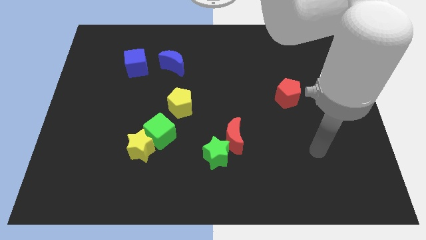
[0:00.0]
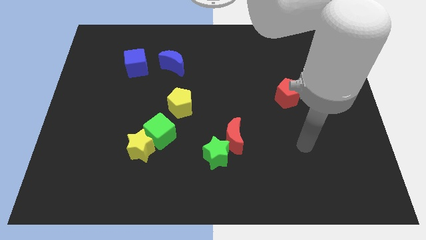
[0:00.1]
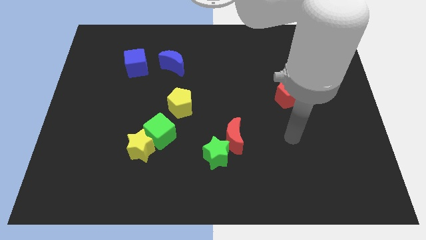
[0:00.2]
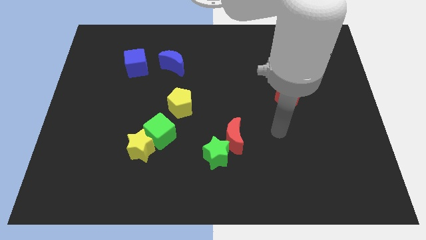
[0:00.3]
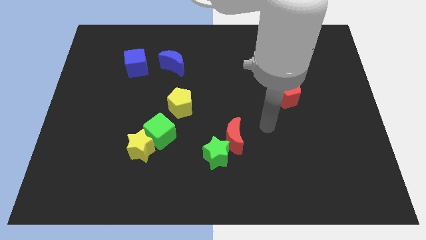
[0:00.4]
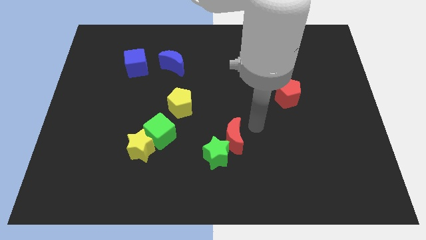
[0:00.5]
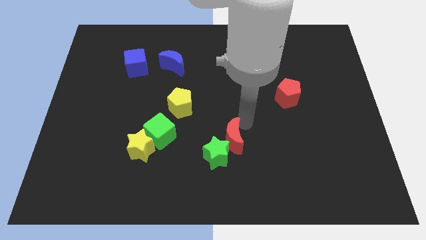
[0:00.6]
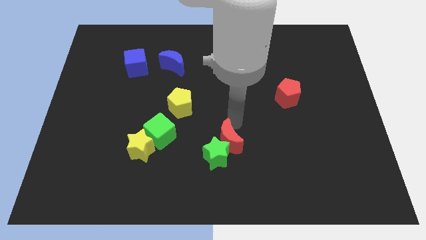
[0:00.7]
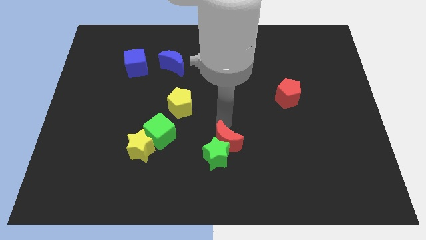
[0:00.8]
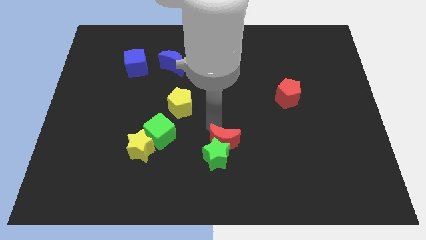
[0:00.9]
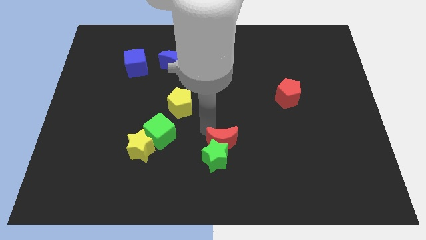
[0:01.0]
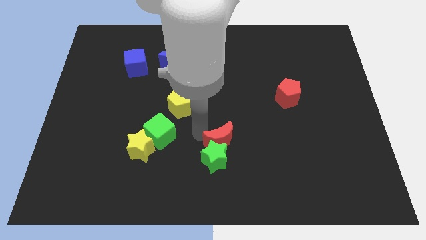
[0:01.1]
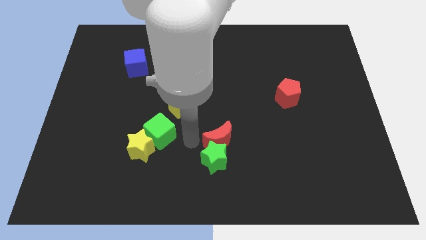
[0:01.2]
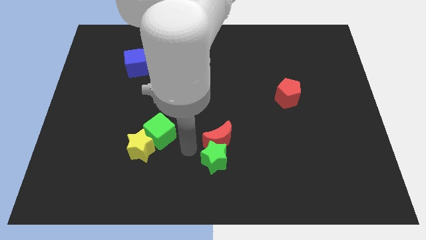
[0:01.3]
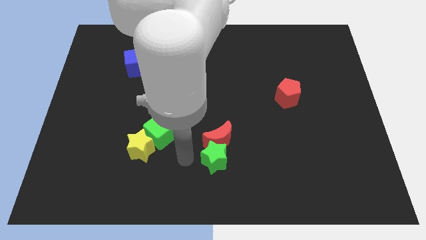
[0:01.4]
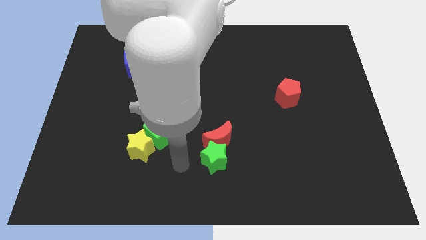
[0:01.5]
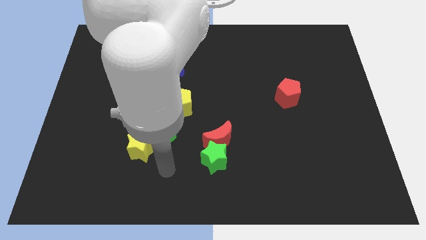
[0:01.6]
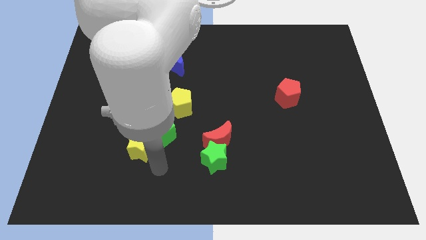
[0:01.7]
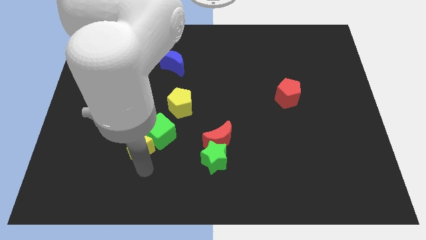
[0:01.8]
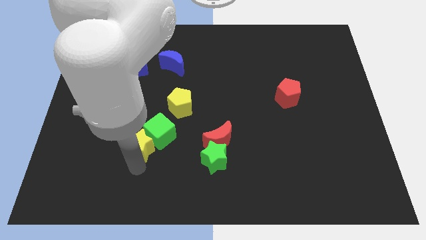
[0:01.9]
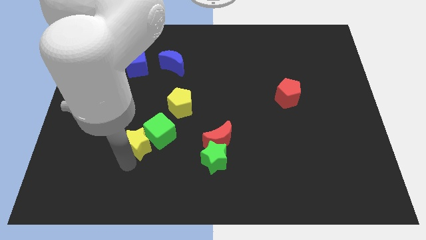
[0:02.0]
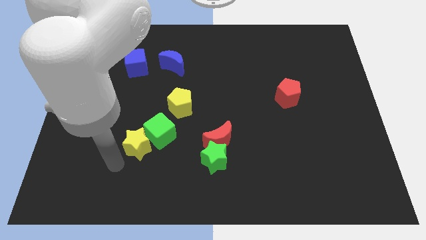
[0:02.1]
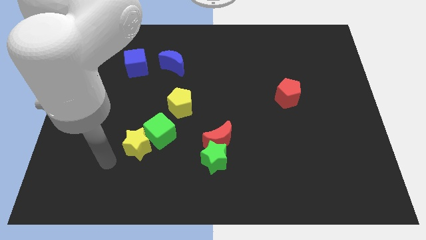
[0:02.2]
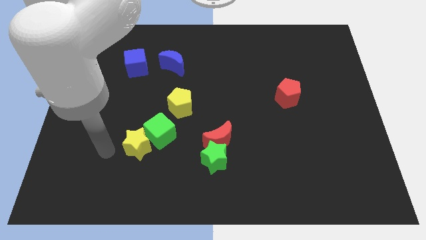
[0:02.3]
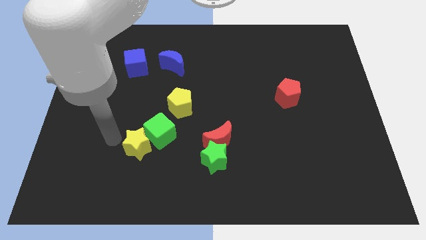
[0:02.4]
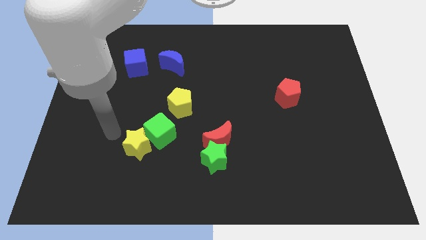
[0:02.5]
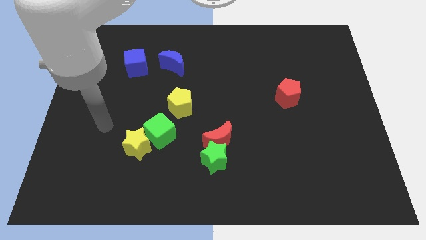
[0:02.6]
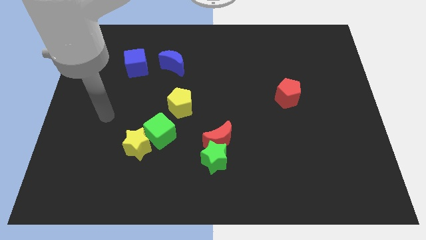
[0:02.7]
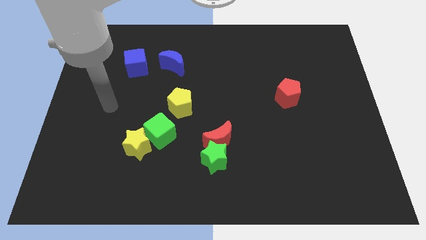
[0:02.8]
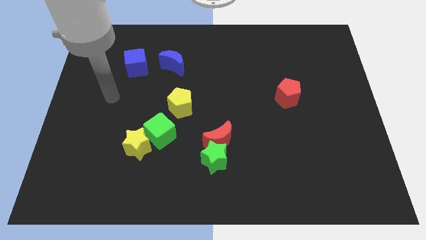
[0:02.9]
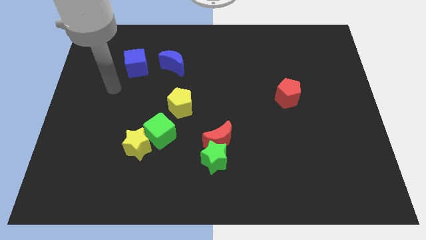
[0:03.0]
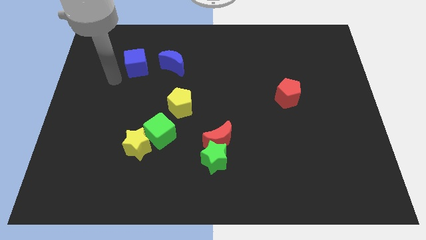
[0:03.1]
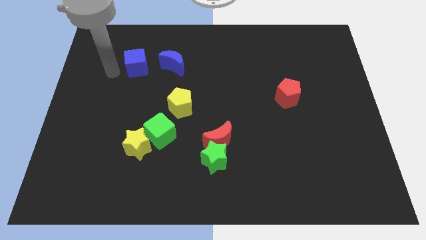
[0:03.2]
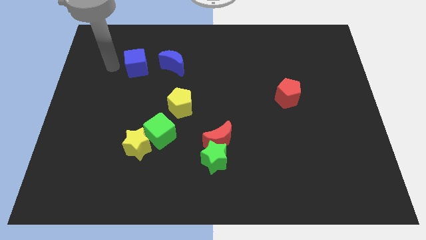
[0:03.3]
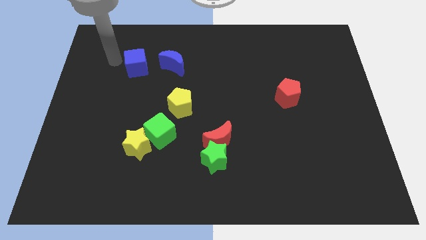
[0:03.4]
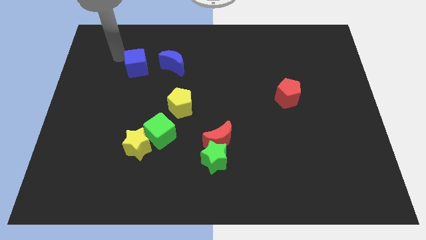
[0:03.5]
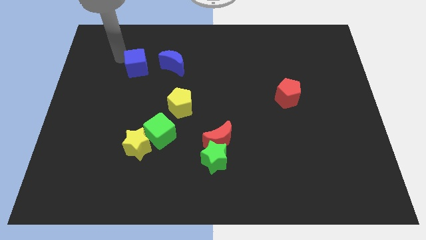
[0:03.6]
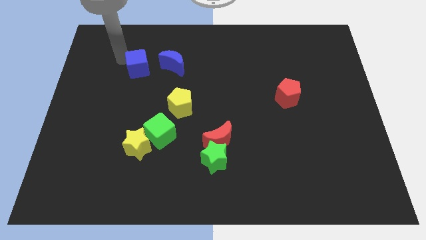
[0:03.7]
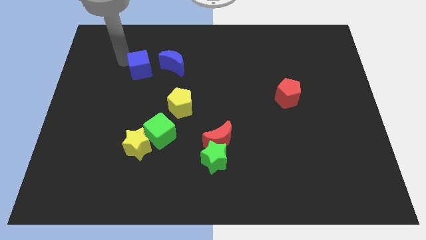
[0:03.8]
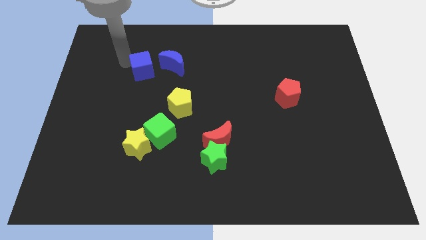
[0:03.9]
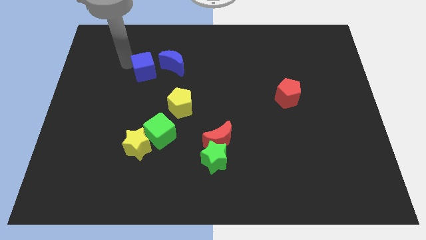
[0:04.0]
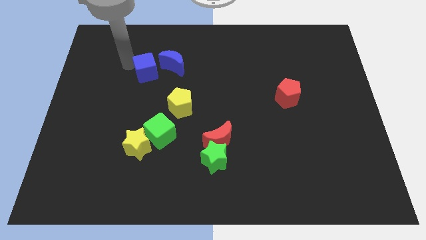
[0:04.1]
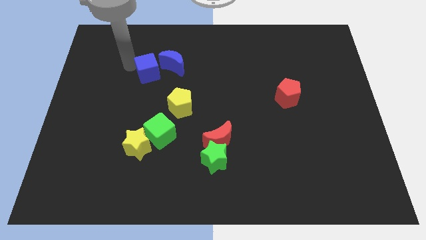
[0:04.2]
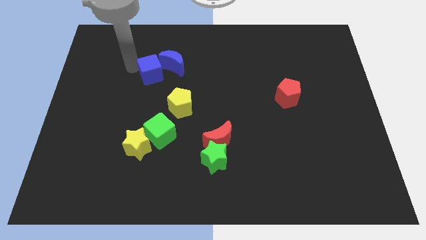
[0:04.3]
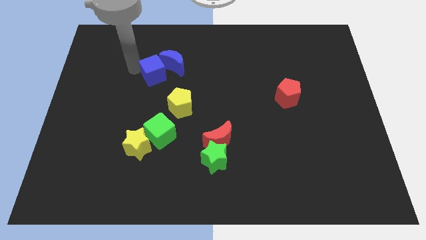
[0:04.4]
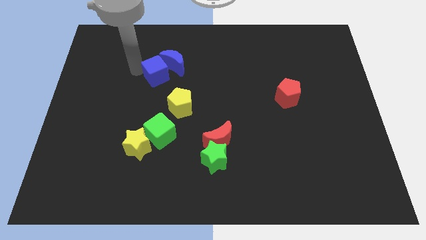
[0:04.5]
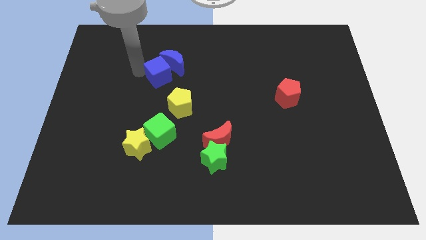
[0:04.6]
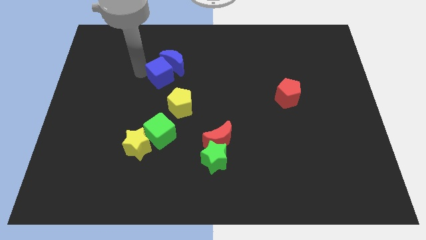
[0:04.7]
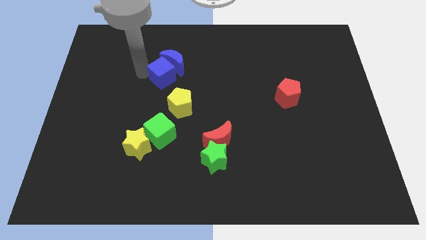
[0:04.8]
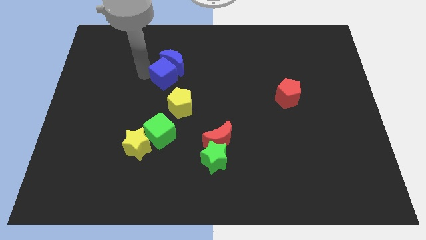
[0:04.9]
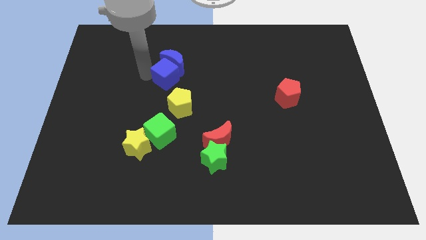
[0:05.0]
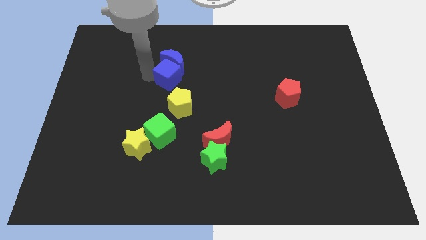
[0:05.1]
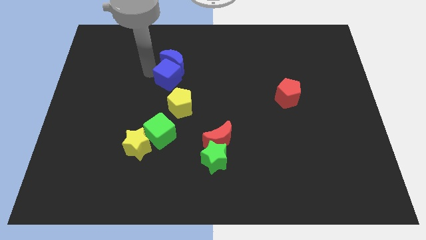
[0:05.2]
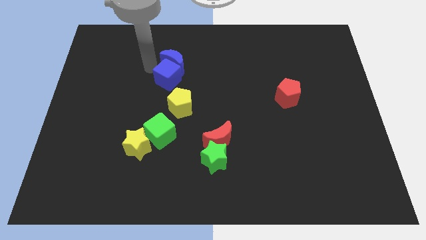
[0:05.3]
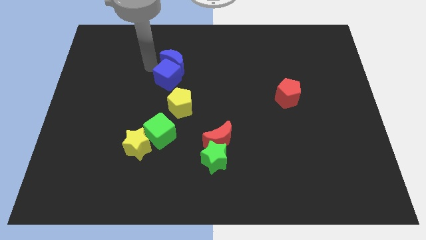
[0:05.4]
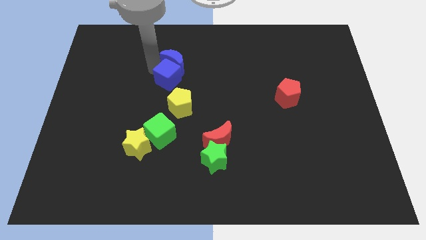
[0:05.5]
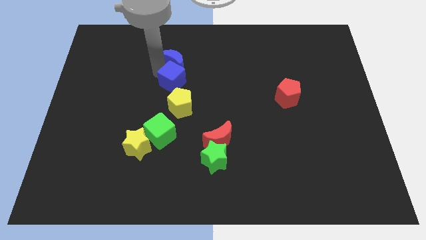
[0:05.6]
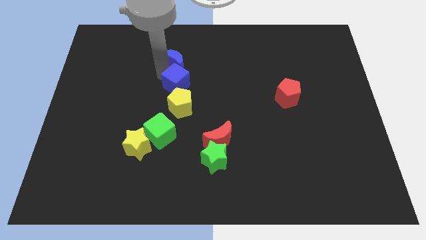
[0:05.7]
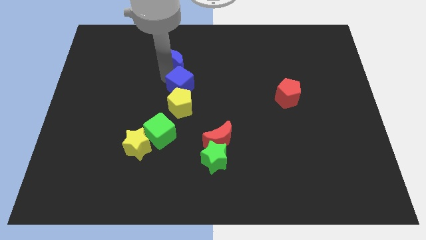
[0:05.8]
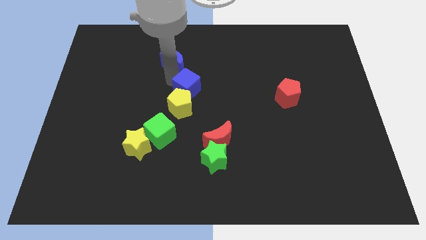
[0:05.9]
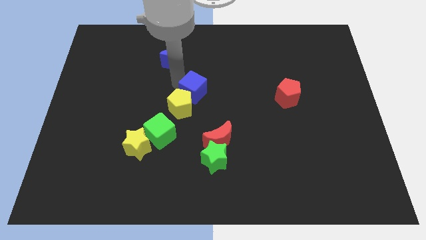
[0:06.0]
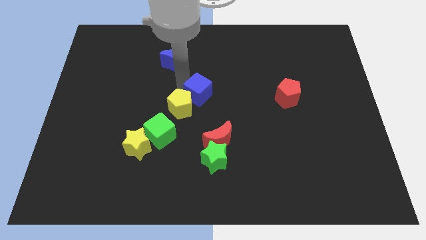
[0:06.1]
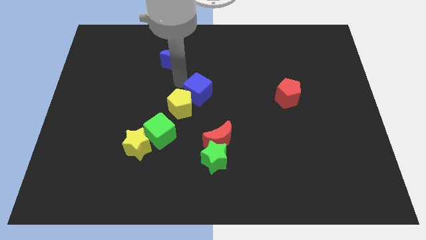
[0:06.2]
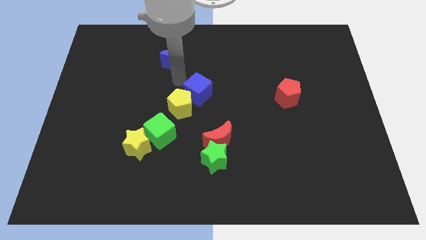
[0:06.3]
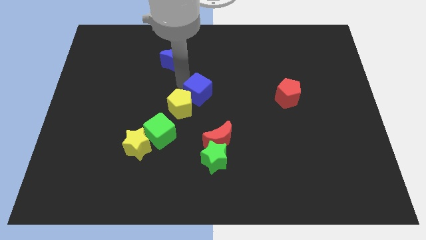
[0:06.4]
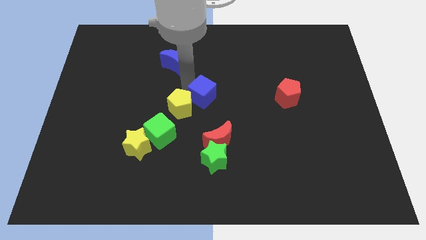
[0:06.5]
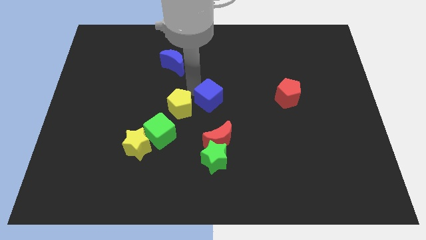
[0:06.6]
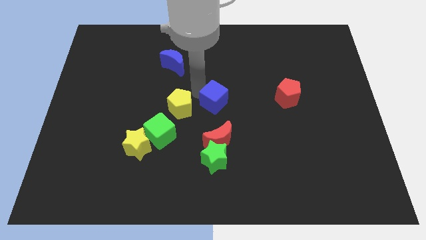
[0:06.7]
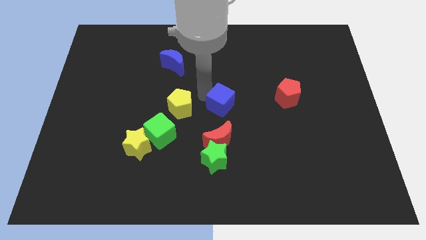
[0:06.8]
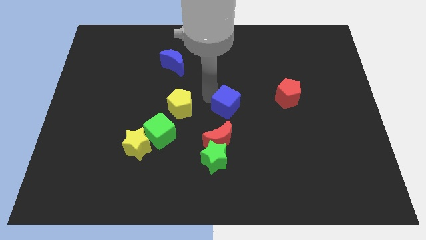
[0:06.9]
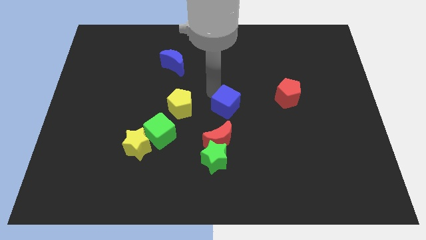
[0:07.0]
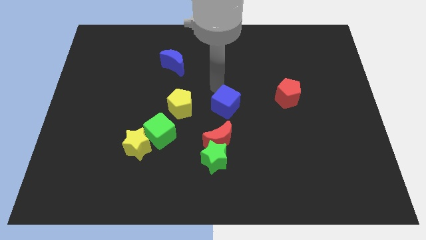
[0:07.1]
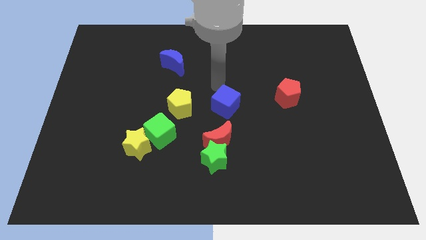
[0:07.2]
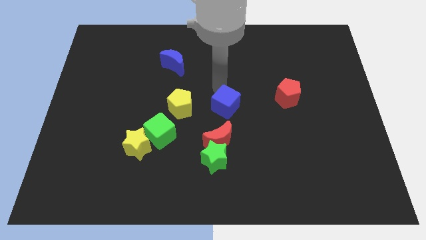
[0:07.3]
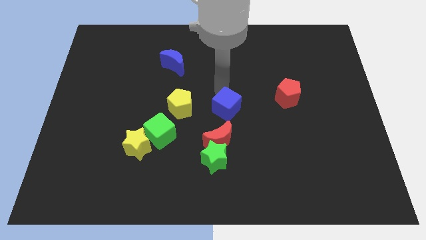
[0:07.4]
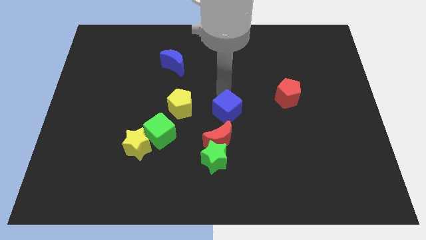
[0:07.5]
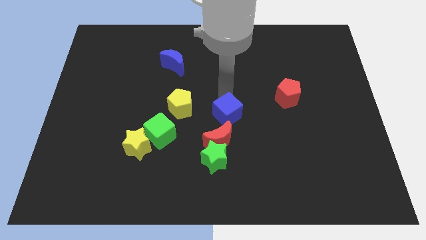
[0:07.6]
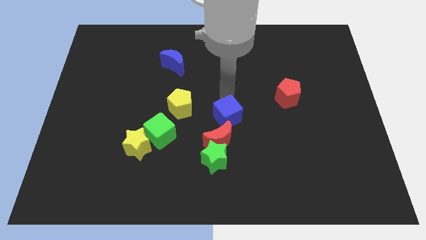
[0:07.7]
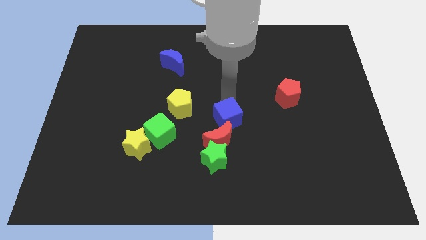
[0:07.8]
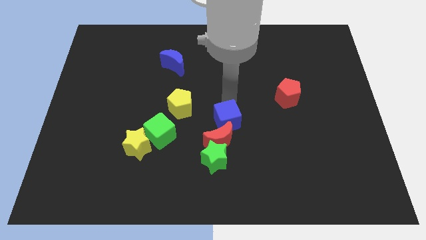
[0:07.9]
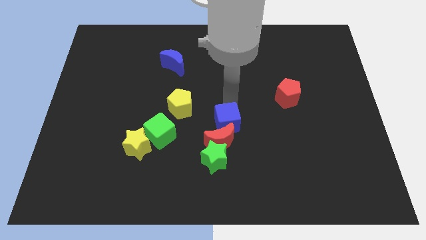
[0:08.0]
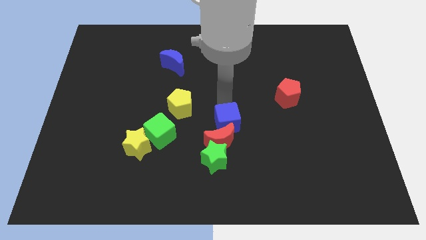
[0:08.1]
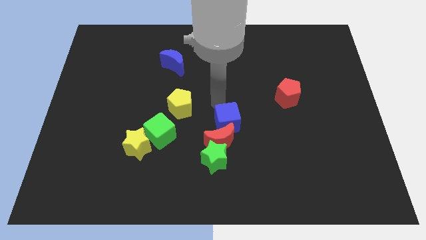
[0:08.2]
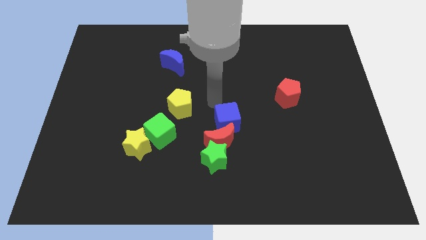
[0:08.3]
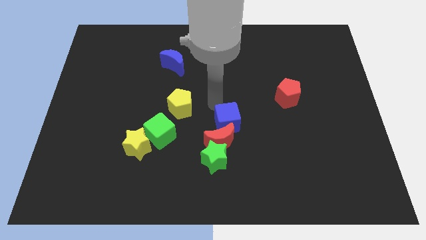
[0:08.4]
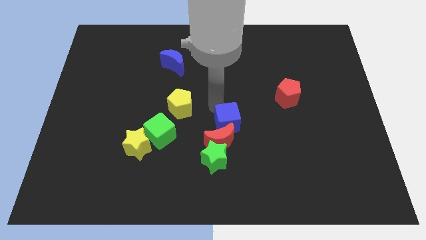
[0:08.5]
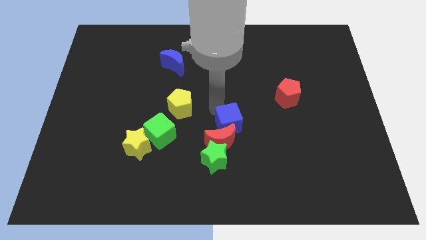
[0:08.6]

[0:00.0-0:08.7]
slide the blue cube diagonally up and to the right of the green star
